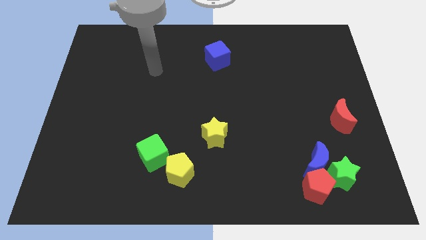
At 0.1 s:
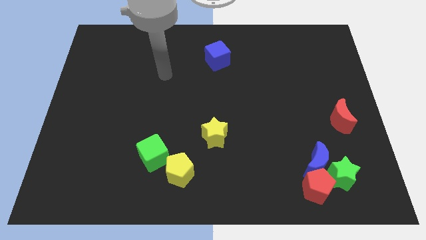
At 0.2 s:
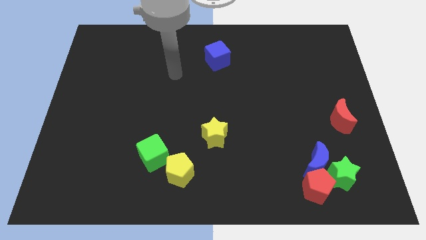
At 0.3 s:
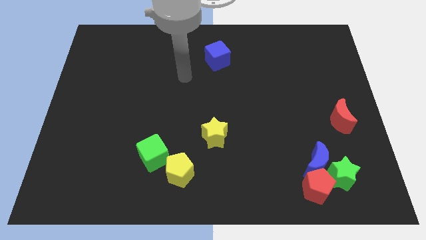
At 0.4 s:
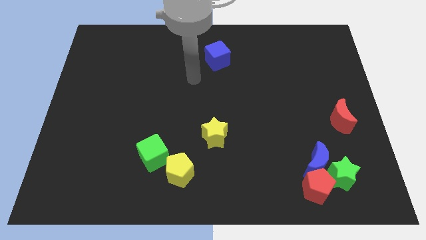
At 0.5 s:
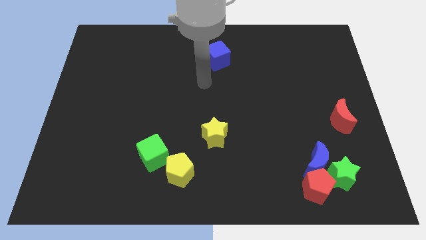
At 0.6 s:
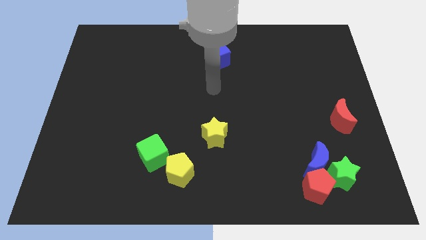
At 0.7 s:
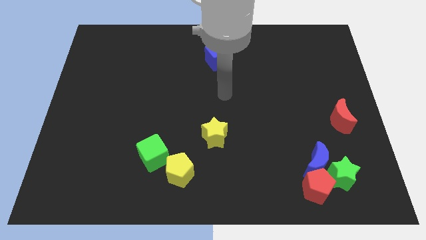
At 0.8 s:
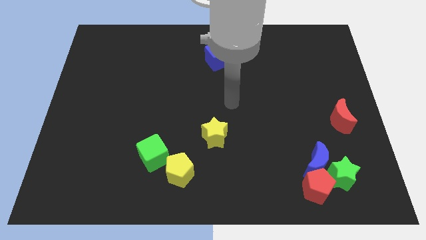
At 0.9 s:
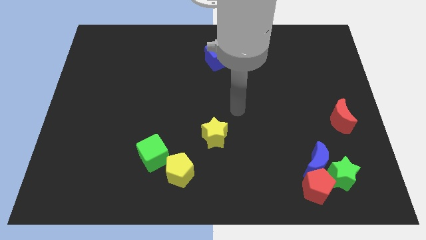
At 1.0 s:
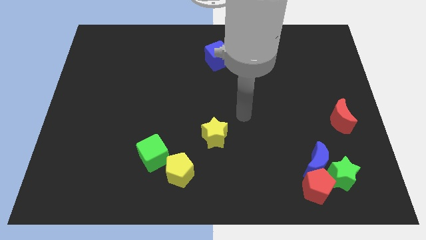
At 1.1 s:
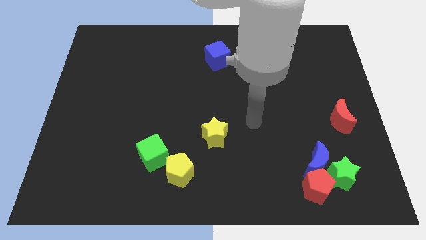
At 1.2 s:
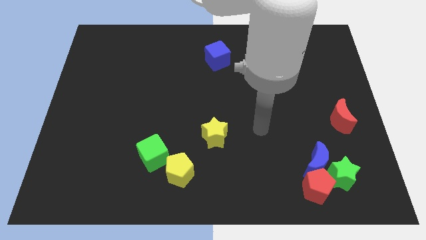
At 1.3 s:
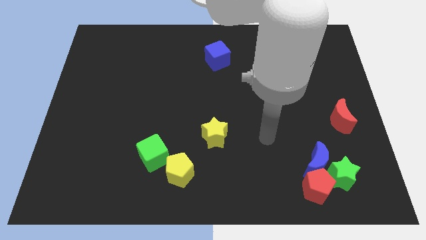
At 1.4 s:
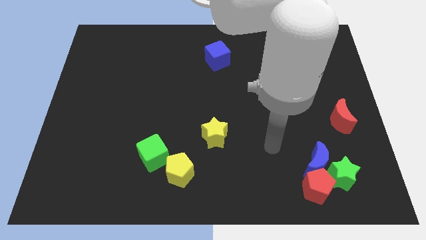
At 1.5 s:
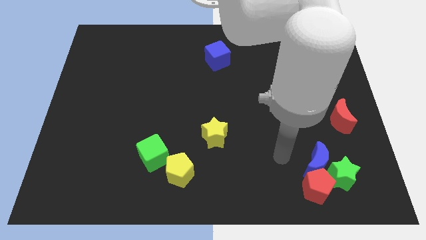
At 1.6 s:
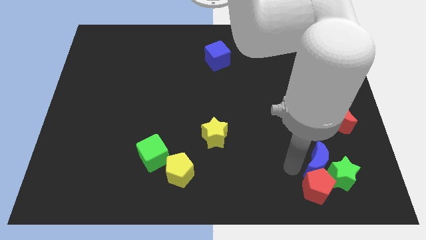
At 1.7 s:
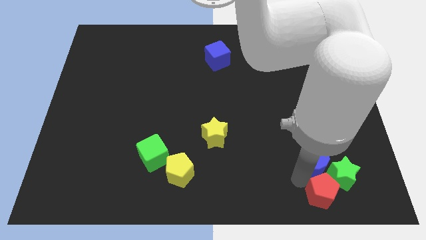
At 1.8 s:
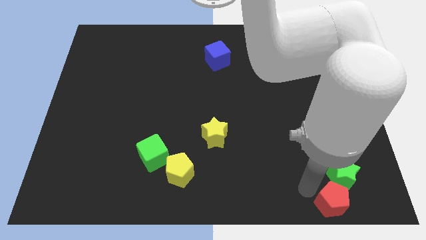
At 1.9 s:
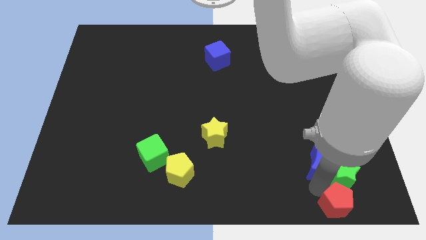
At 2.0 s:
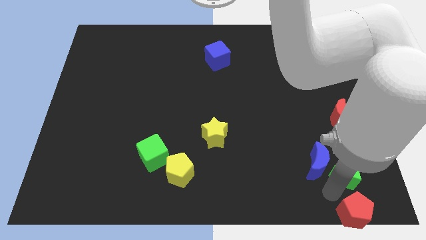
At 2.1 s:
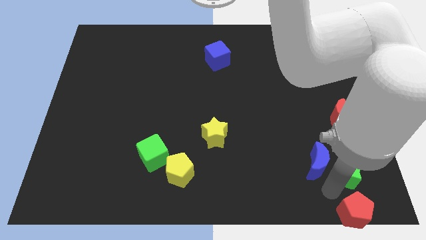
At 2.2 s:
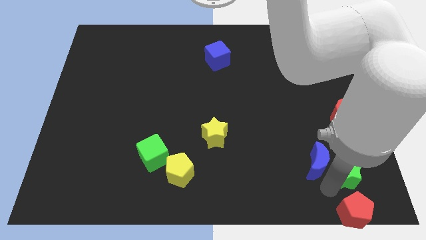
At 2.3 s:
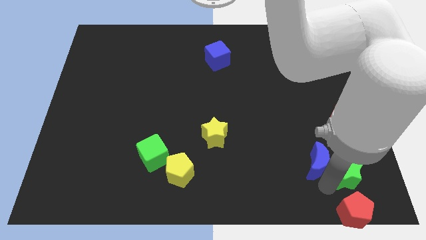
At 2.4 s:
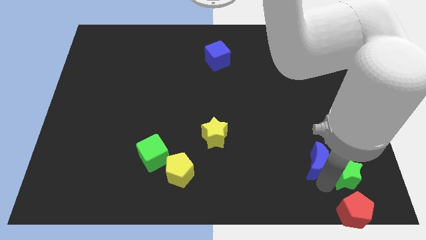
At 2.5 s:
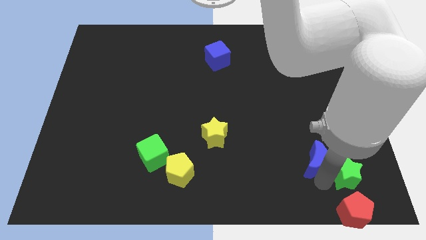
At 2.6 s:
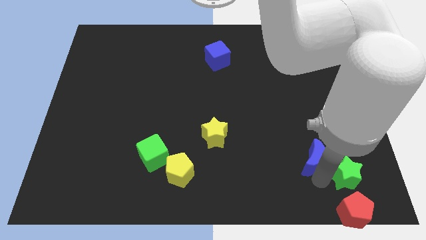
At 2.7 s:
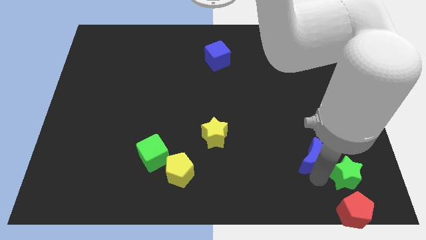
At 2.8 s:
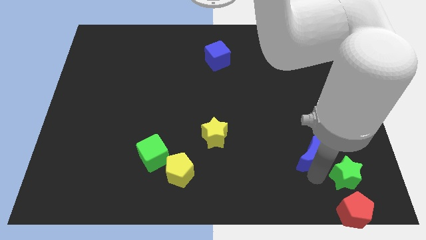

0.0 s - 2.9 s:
separate the blue moon from the green star and red pentagon

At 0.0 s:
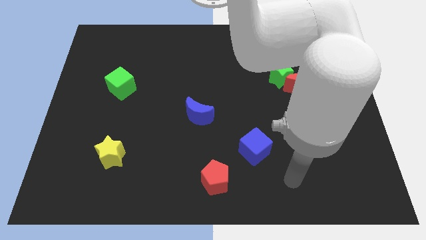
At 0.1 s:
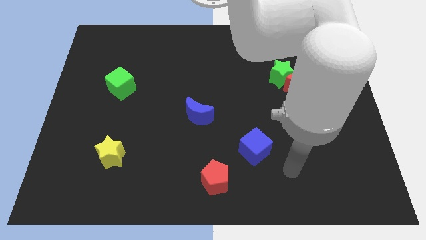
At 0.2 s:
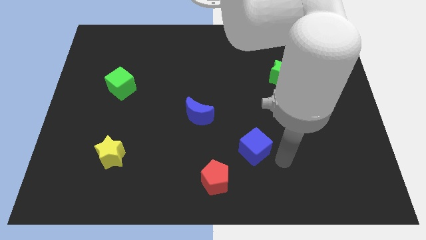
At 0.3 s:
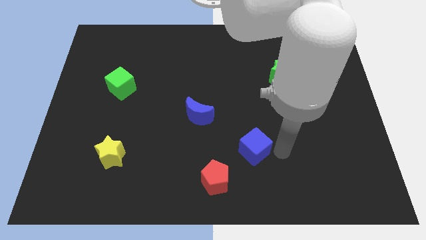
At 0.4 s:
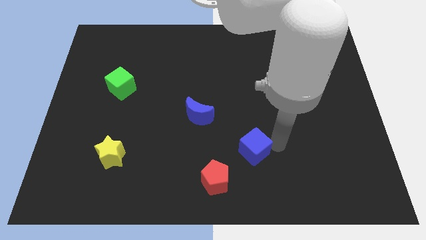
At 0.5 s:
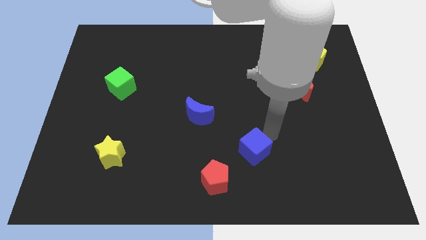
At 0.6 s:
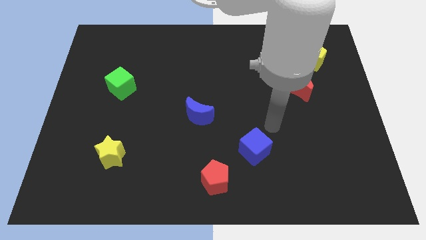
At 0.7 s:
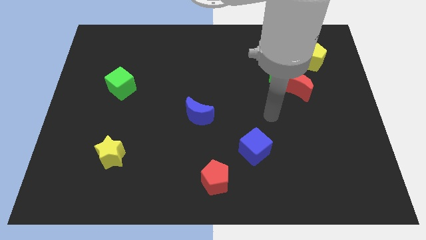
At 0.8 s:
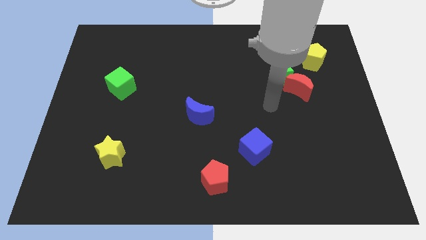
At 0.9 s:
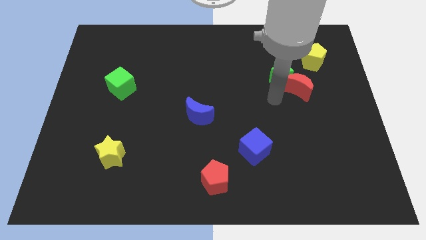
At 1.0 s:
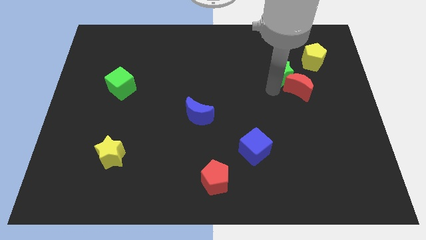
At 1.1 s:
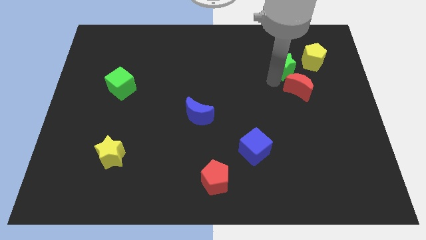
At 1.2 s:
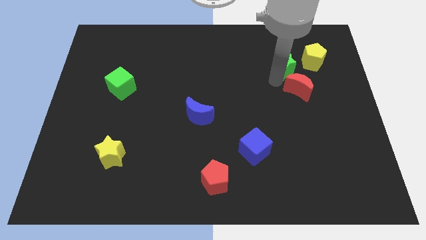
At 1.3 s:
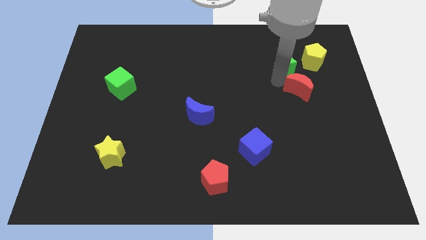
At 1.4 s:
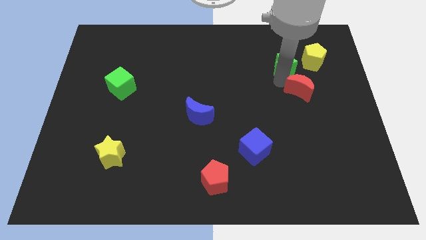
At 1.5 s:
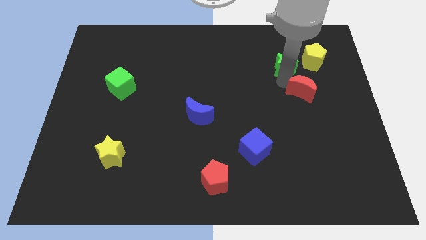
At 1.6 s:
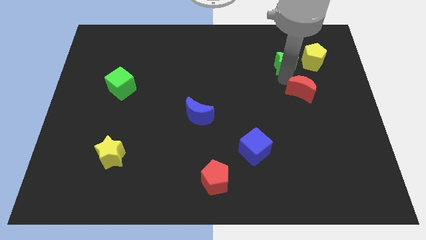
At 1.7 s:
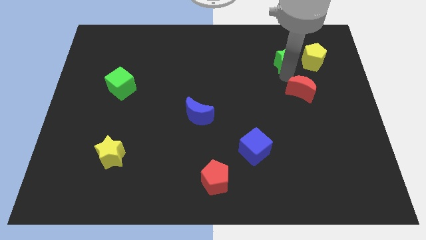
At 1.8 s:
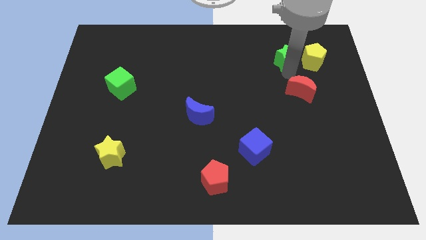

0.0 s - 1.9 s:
pull the red moon apart from the green star

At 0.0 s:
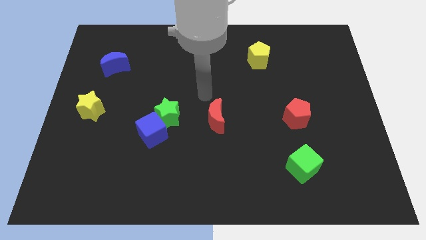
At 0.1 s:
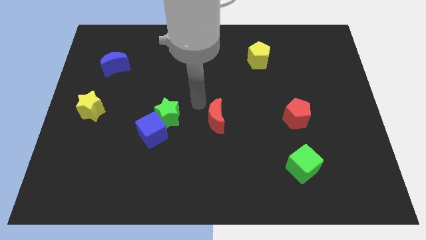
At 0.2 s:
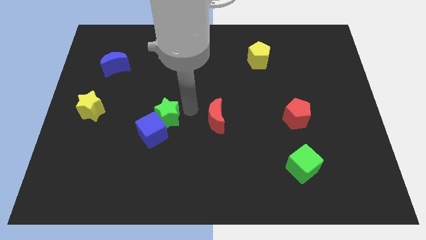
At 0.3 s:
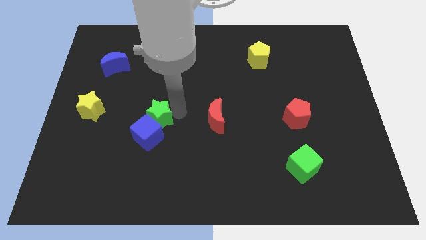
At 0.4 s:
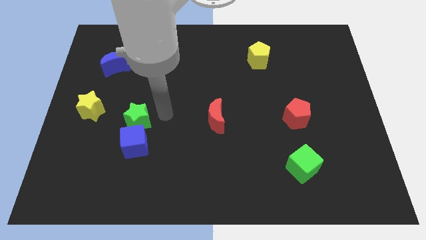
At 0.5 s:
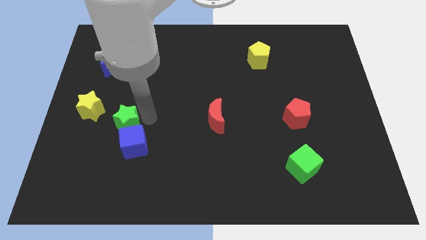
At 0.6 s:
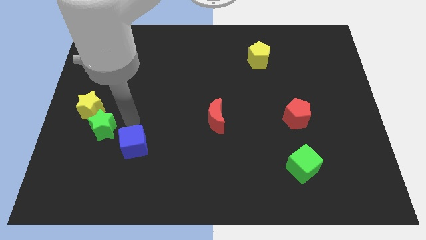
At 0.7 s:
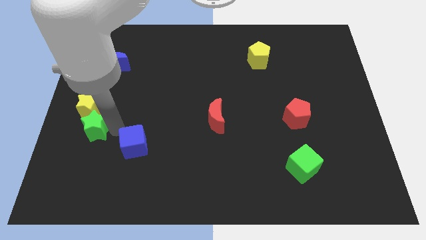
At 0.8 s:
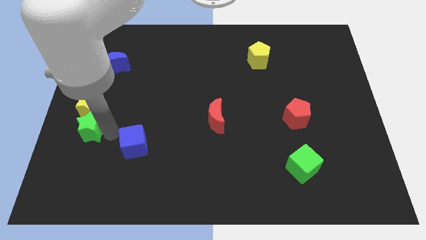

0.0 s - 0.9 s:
move the blue cube away from the green star

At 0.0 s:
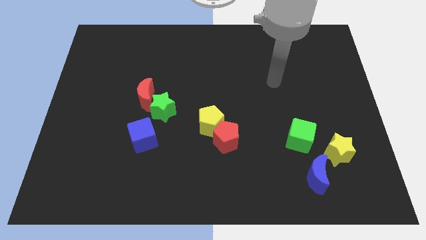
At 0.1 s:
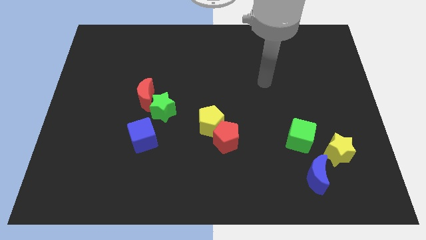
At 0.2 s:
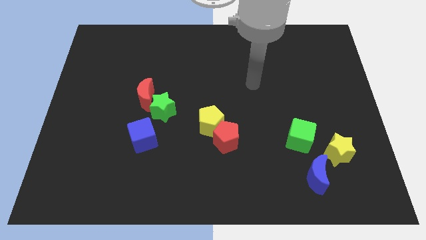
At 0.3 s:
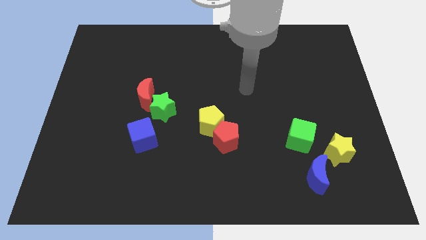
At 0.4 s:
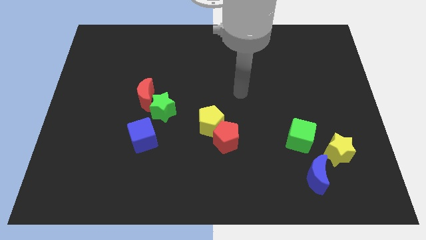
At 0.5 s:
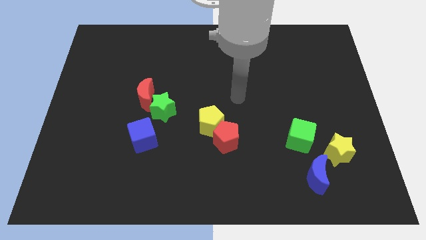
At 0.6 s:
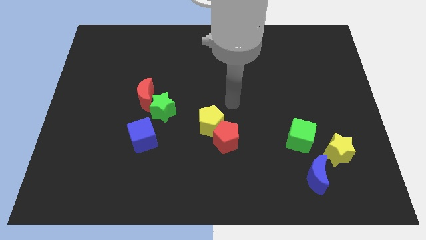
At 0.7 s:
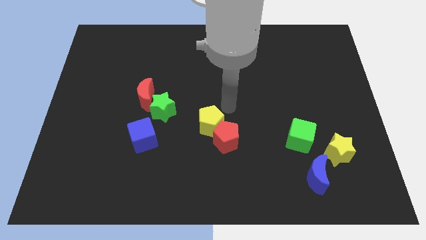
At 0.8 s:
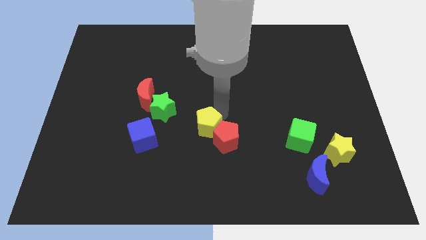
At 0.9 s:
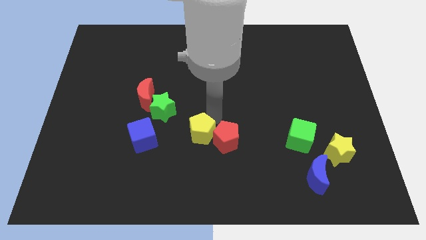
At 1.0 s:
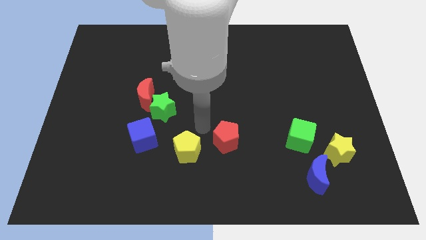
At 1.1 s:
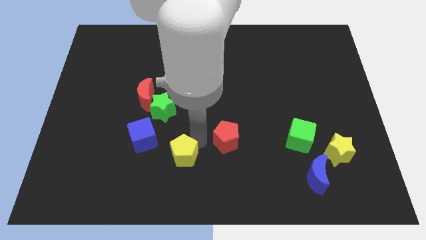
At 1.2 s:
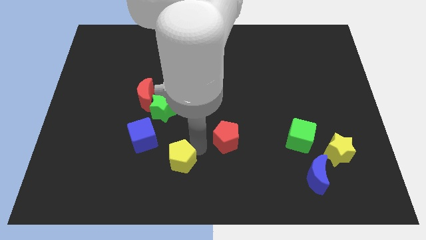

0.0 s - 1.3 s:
move the red pentagon away from the yellow pentagon

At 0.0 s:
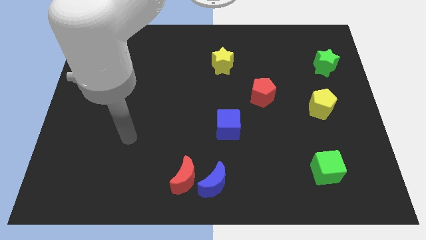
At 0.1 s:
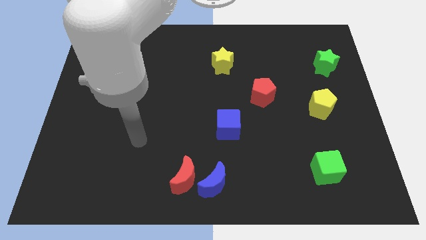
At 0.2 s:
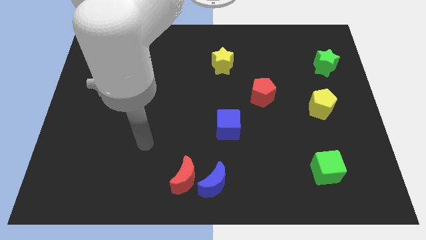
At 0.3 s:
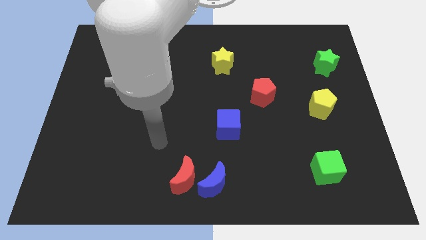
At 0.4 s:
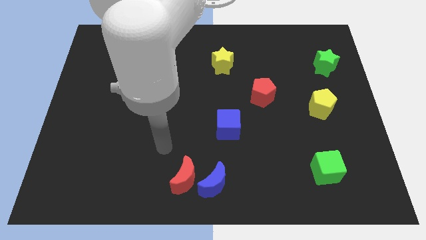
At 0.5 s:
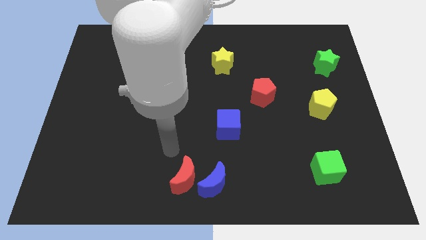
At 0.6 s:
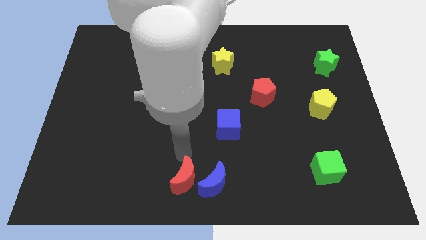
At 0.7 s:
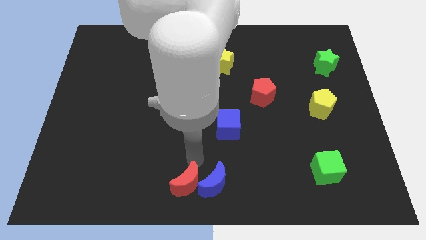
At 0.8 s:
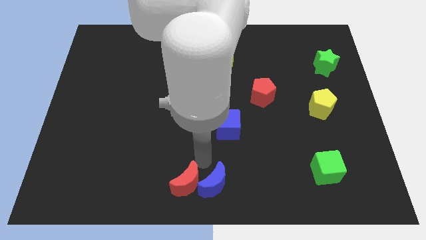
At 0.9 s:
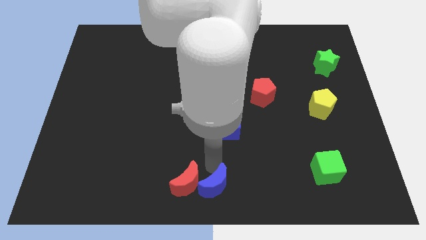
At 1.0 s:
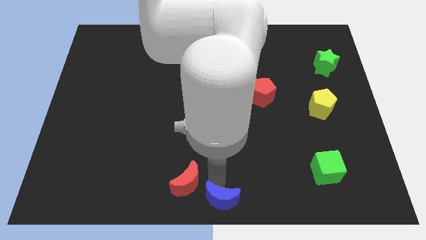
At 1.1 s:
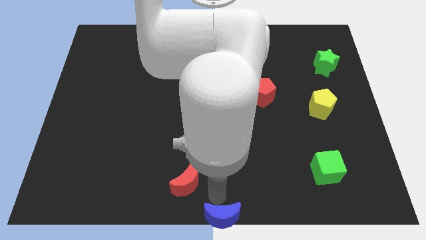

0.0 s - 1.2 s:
pull the red moon apart from the blue moon

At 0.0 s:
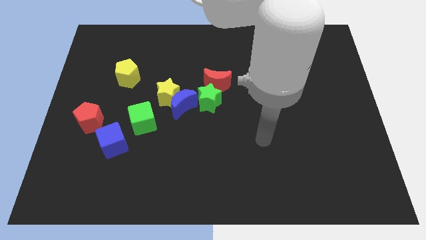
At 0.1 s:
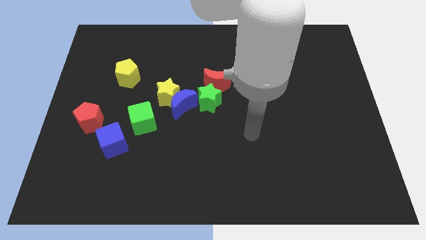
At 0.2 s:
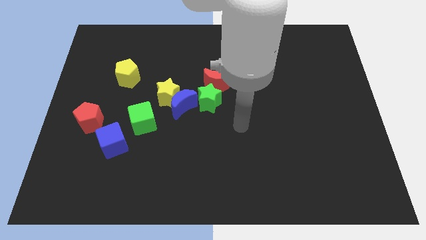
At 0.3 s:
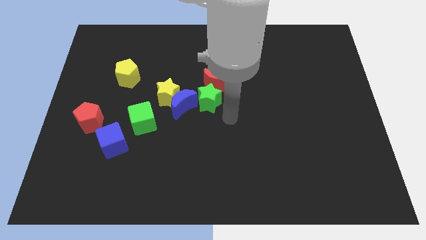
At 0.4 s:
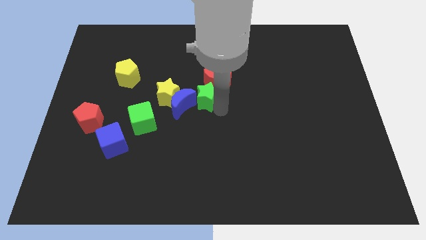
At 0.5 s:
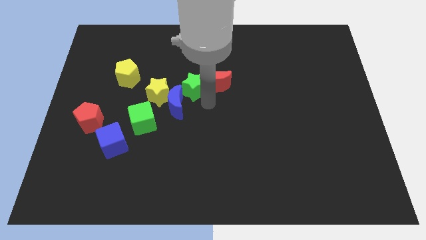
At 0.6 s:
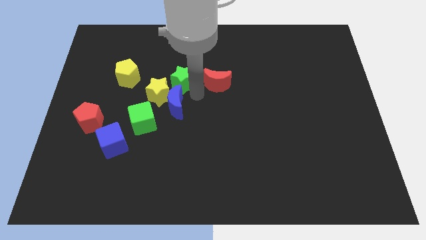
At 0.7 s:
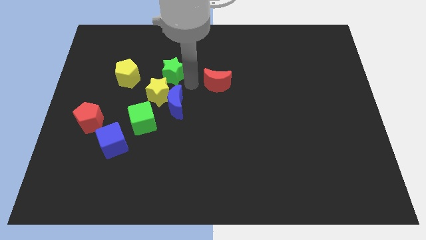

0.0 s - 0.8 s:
separate the red moon from the green star

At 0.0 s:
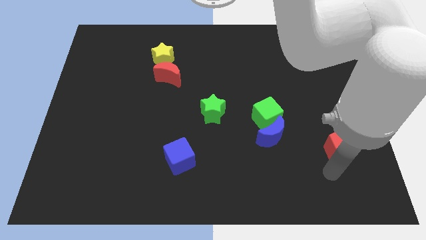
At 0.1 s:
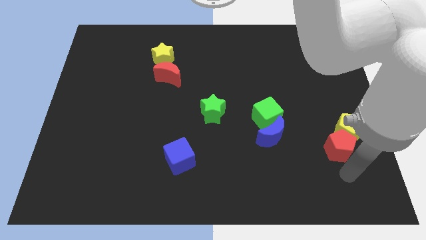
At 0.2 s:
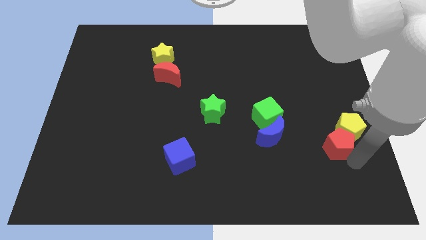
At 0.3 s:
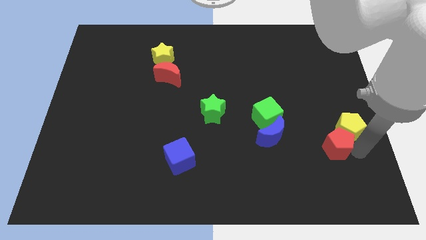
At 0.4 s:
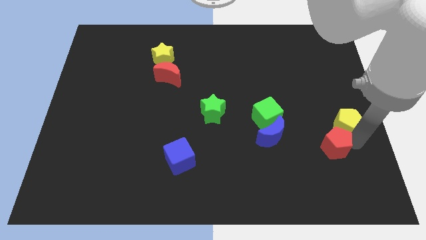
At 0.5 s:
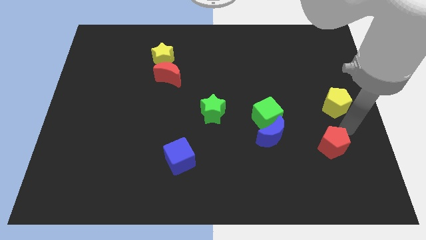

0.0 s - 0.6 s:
pull the red pentagon apart from the yellow pentagon
